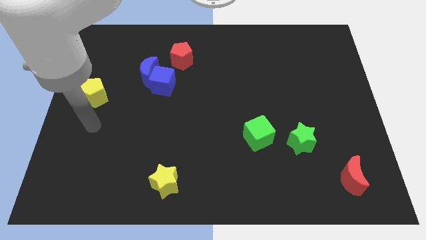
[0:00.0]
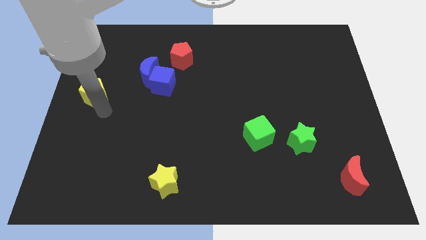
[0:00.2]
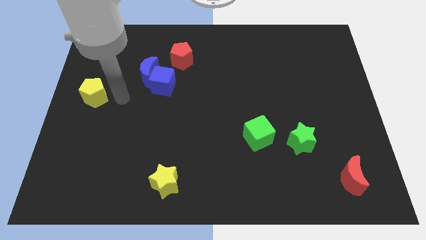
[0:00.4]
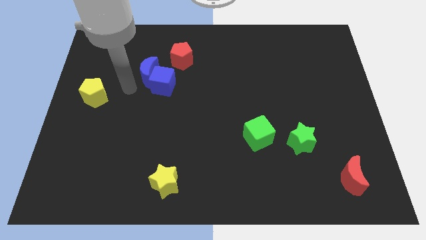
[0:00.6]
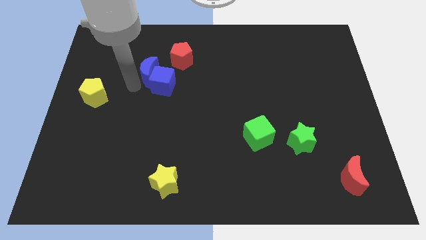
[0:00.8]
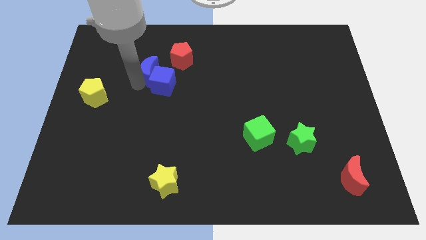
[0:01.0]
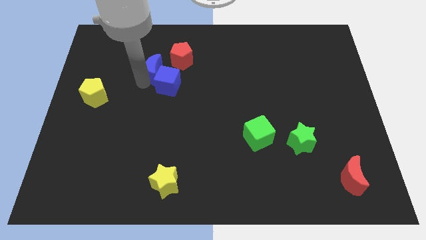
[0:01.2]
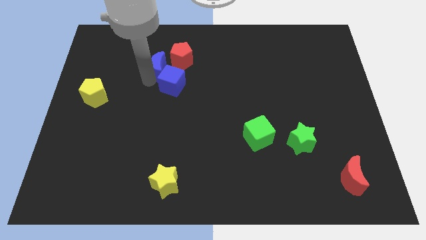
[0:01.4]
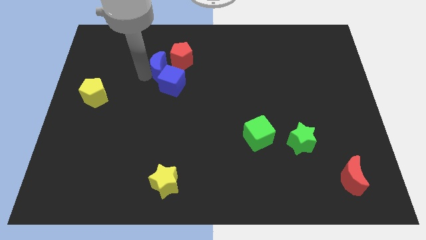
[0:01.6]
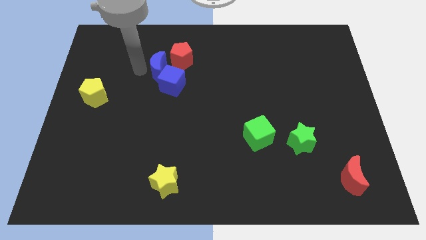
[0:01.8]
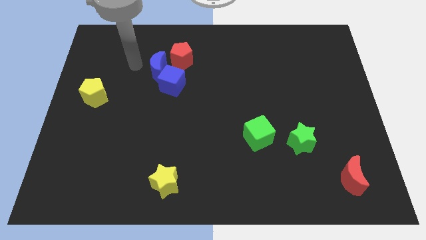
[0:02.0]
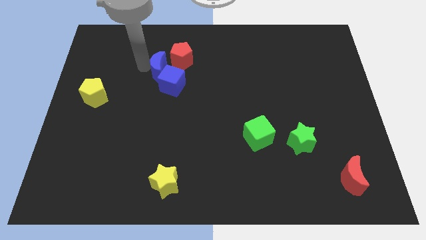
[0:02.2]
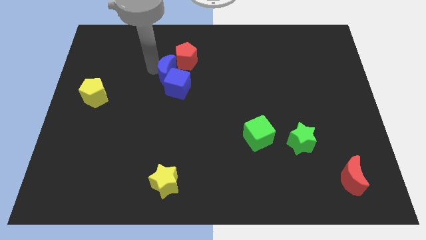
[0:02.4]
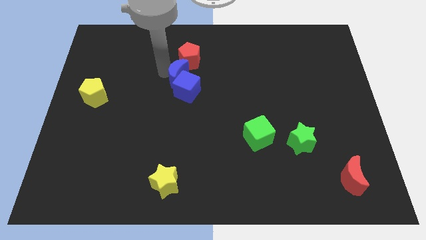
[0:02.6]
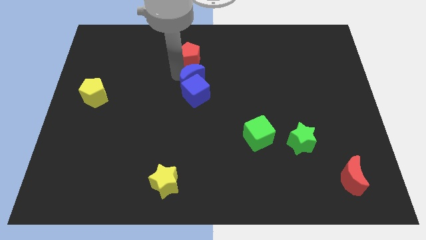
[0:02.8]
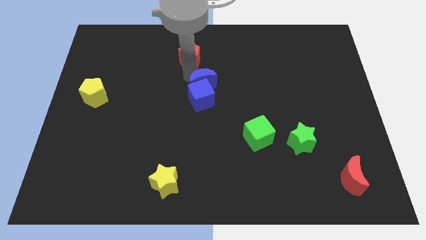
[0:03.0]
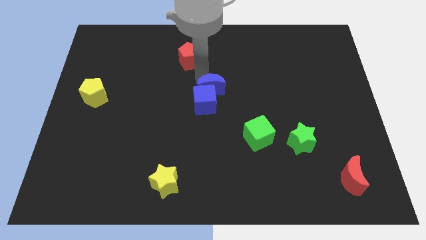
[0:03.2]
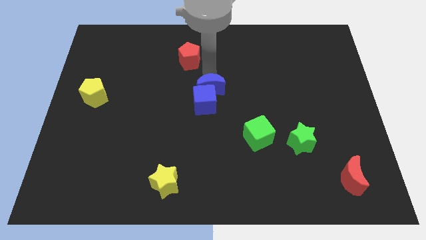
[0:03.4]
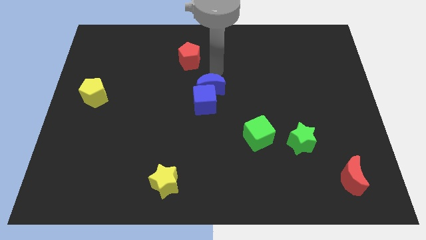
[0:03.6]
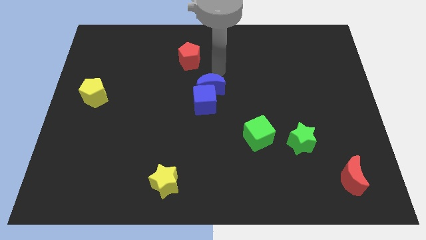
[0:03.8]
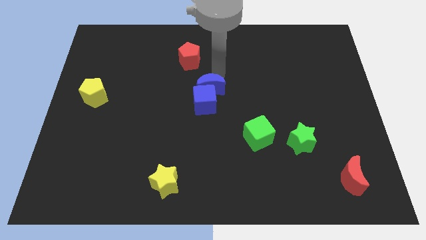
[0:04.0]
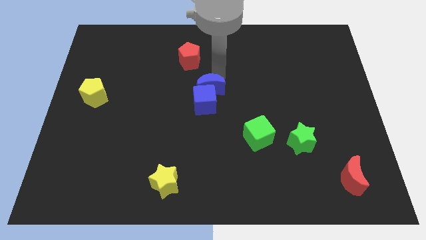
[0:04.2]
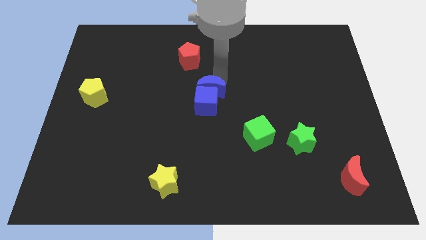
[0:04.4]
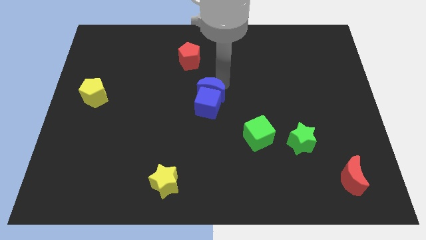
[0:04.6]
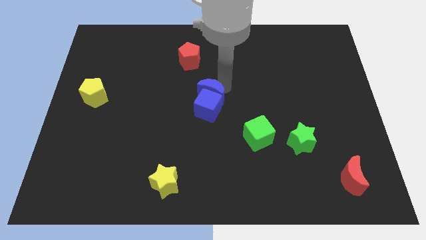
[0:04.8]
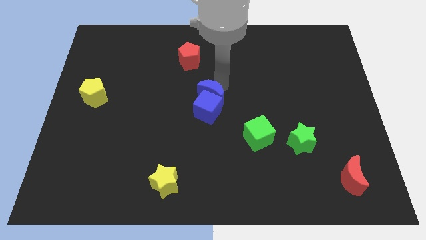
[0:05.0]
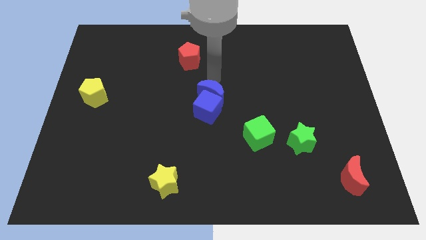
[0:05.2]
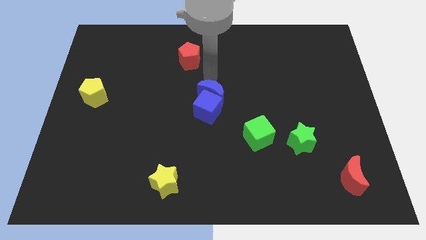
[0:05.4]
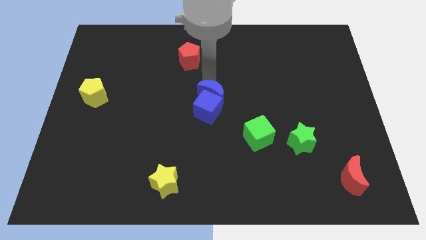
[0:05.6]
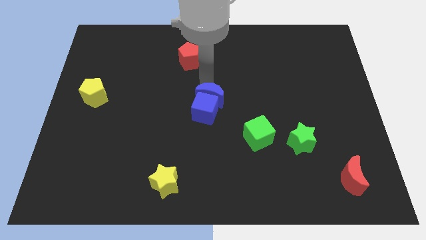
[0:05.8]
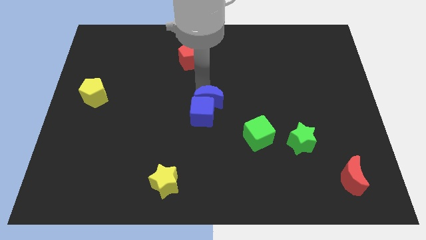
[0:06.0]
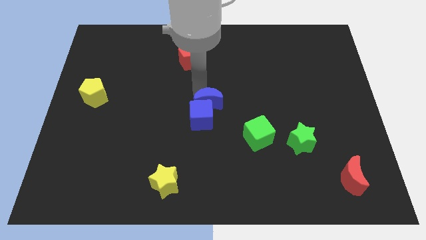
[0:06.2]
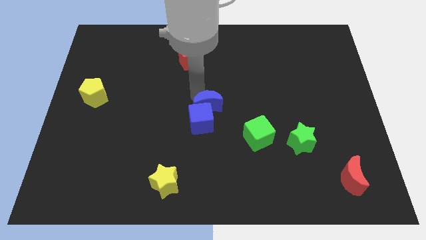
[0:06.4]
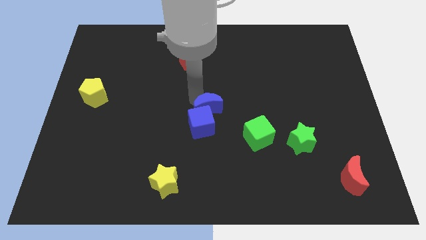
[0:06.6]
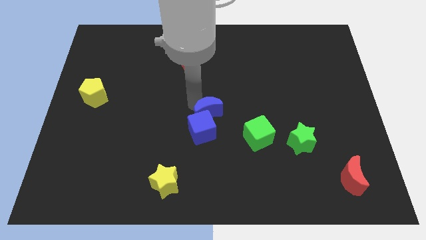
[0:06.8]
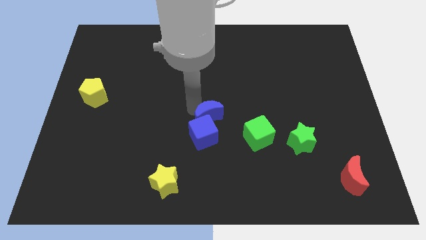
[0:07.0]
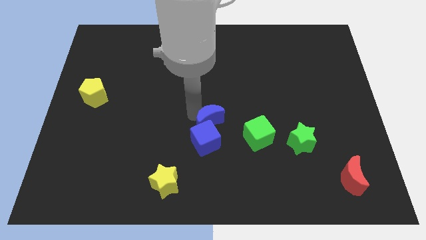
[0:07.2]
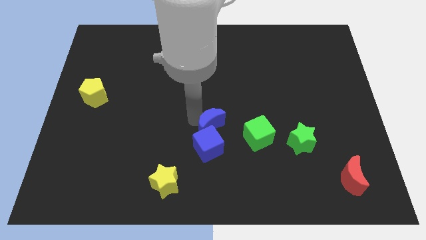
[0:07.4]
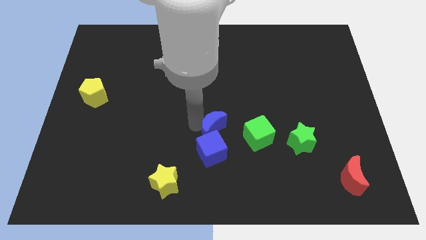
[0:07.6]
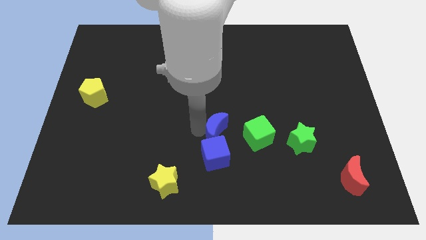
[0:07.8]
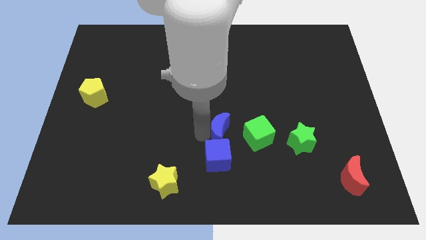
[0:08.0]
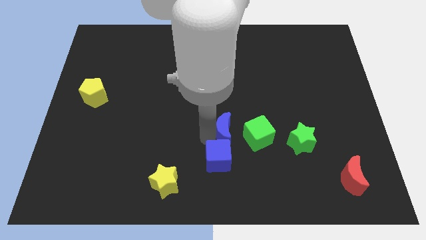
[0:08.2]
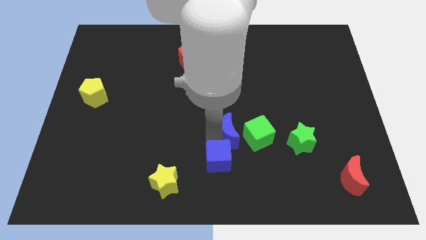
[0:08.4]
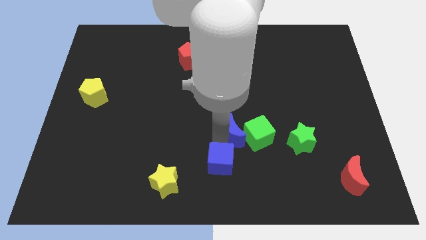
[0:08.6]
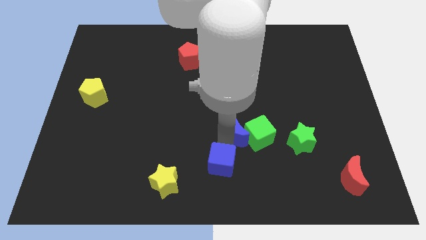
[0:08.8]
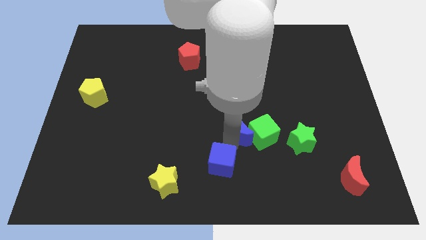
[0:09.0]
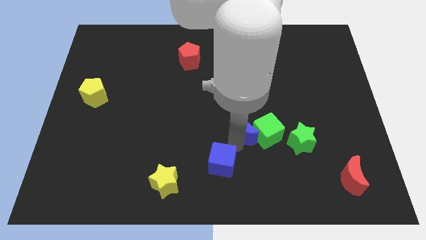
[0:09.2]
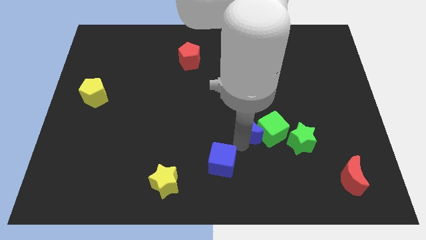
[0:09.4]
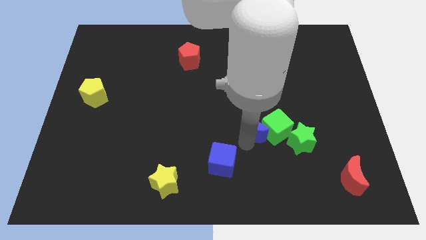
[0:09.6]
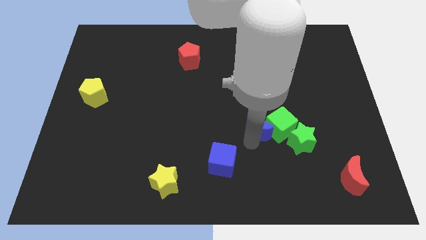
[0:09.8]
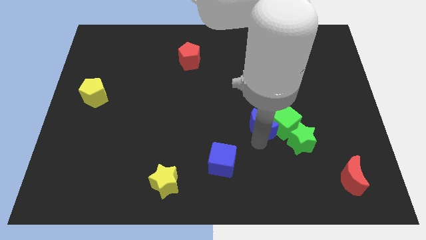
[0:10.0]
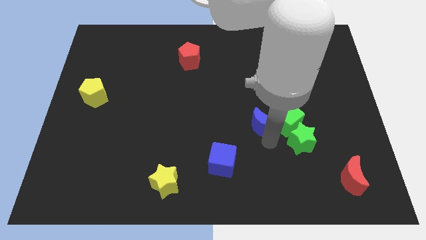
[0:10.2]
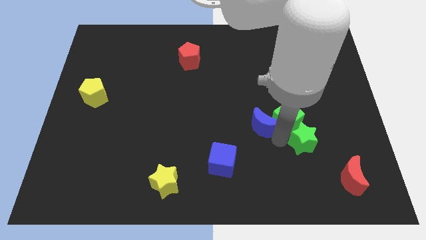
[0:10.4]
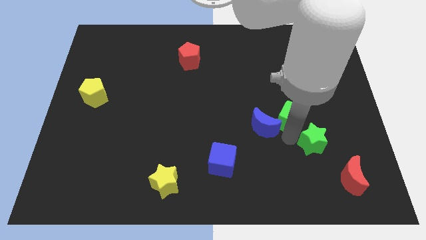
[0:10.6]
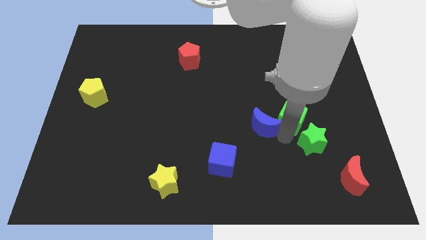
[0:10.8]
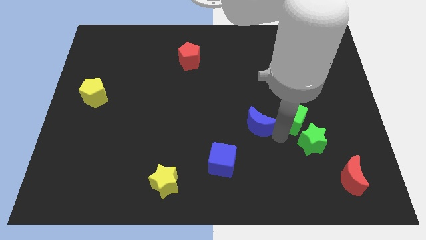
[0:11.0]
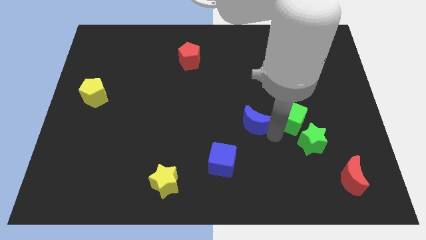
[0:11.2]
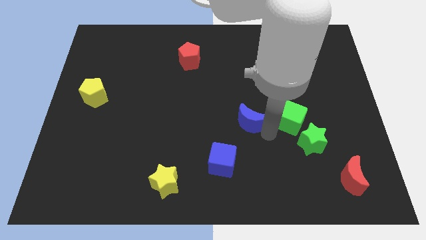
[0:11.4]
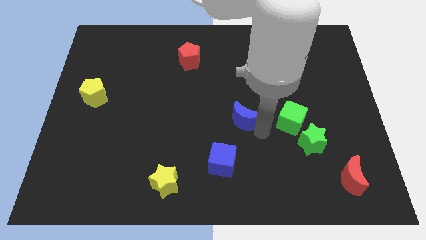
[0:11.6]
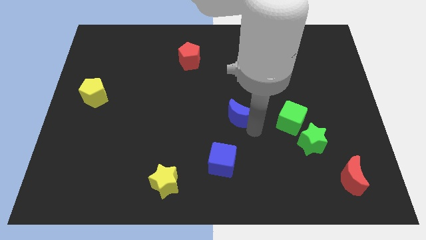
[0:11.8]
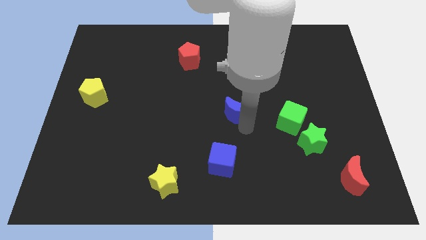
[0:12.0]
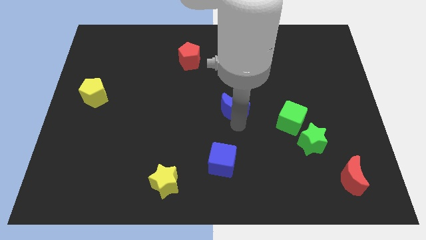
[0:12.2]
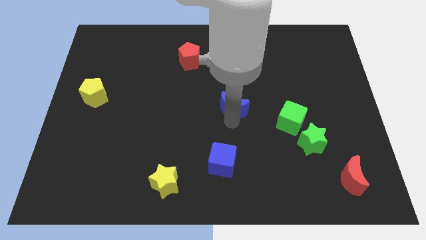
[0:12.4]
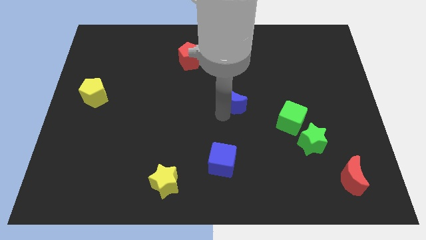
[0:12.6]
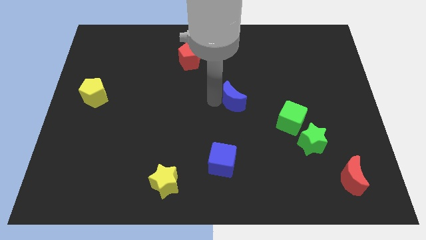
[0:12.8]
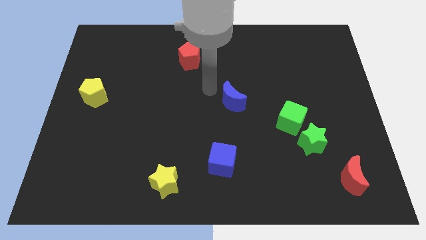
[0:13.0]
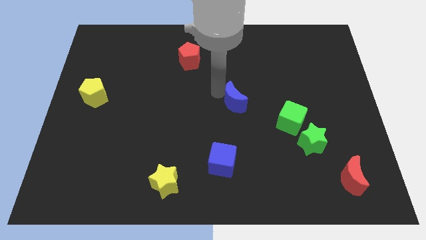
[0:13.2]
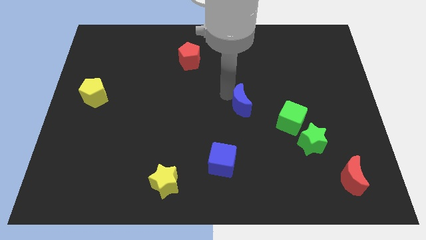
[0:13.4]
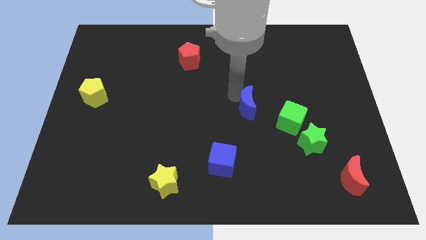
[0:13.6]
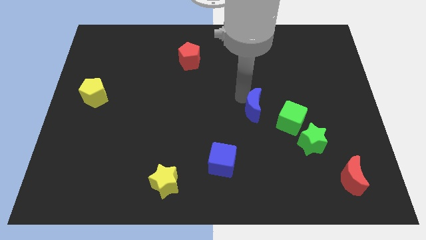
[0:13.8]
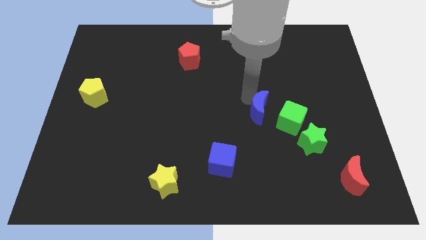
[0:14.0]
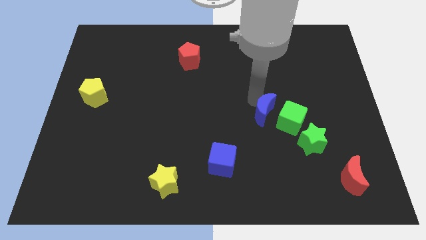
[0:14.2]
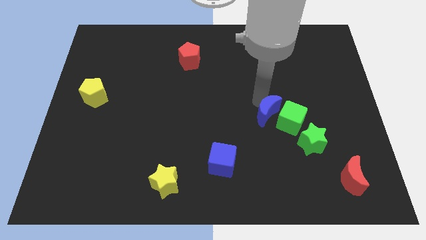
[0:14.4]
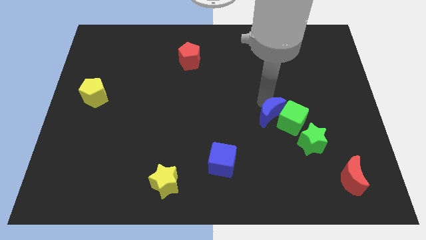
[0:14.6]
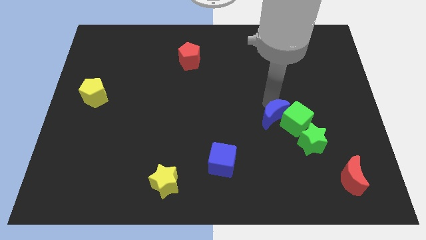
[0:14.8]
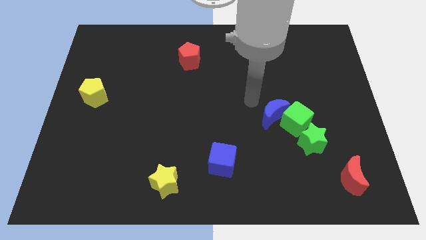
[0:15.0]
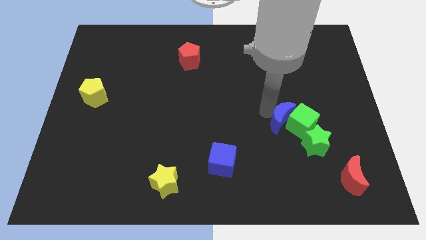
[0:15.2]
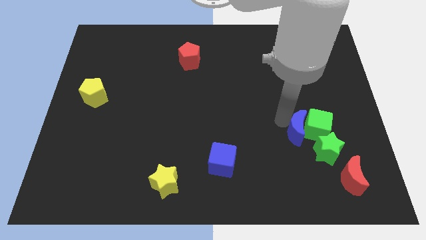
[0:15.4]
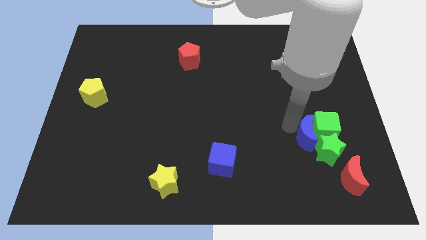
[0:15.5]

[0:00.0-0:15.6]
move the blue moon next to the green star
